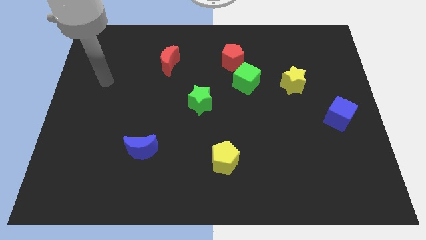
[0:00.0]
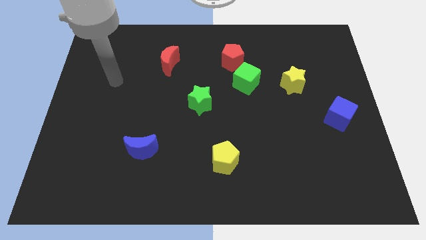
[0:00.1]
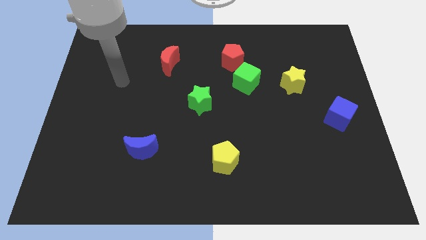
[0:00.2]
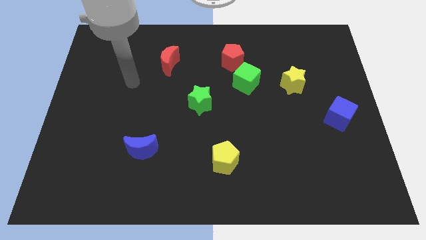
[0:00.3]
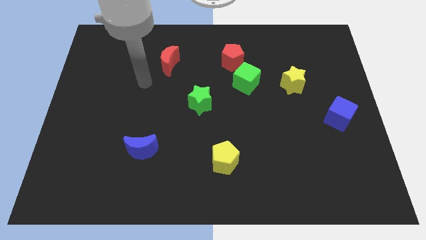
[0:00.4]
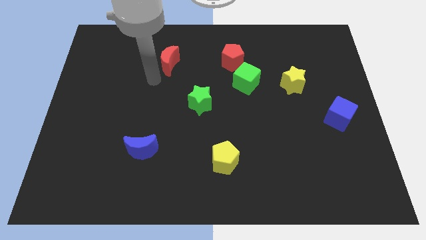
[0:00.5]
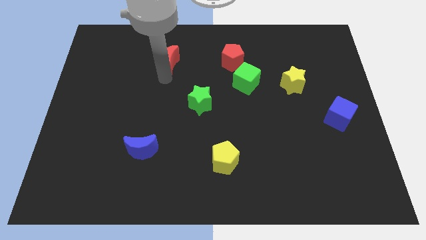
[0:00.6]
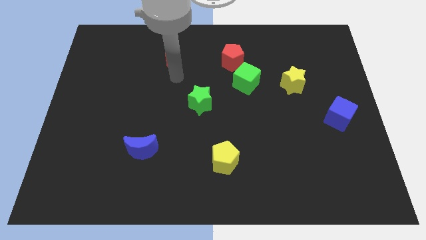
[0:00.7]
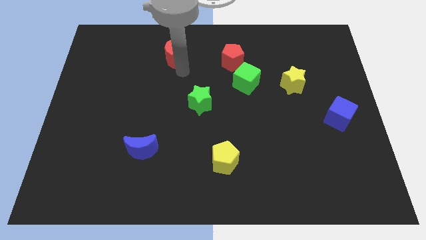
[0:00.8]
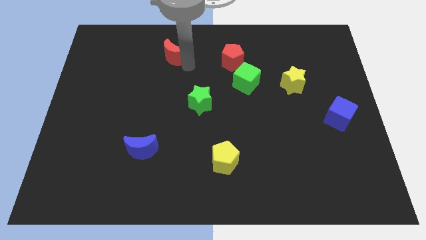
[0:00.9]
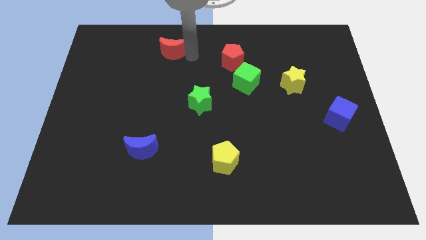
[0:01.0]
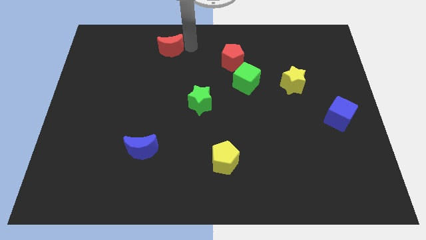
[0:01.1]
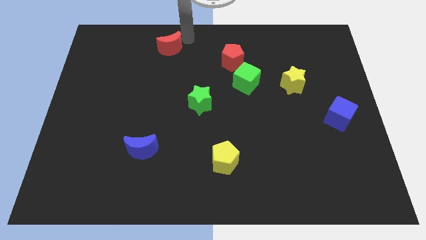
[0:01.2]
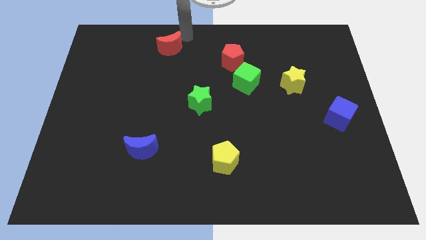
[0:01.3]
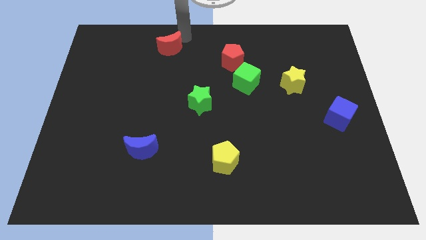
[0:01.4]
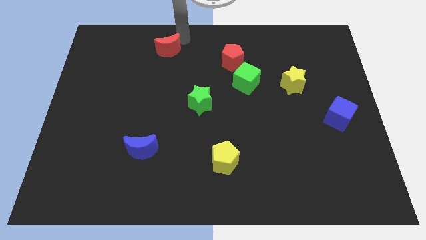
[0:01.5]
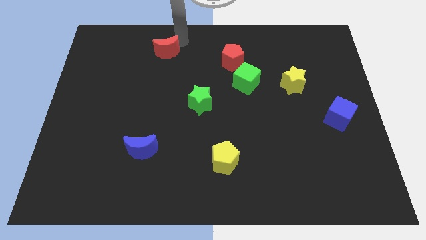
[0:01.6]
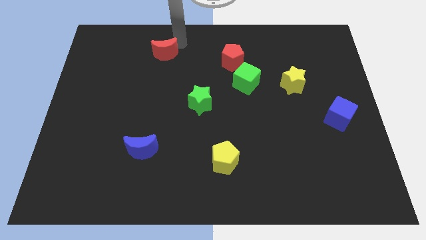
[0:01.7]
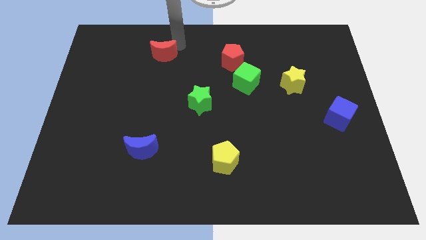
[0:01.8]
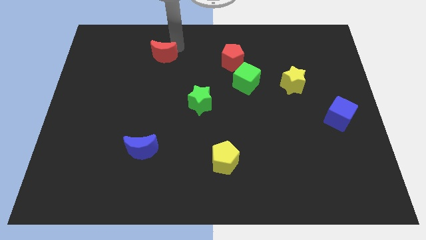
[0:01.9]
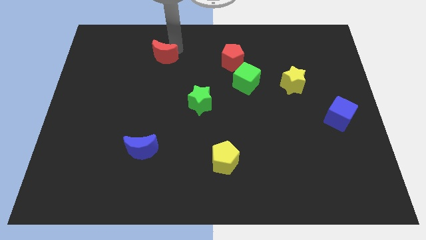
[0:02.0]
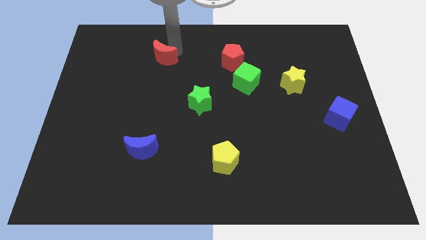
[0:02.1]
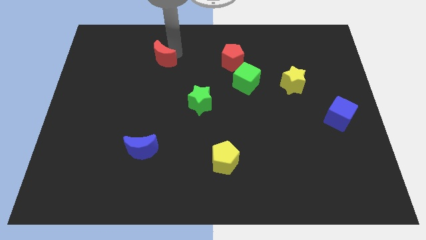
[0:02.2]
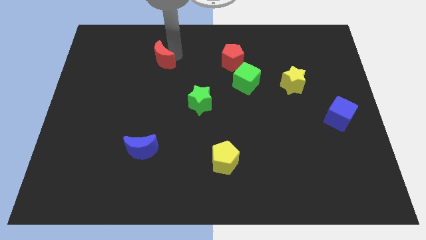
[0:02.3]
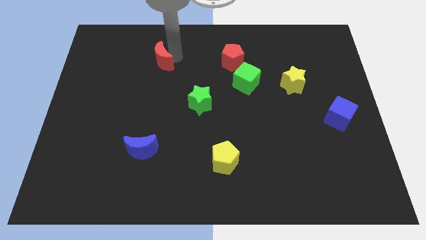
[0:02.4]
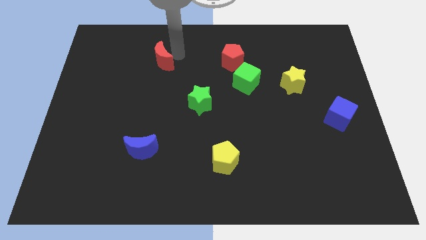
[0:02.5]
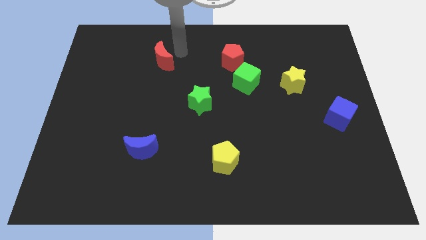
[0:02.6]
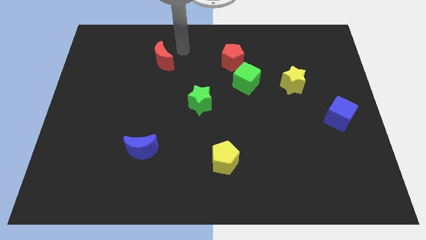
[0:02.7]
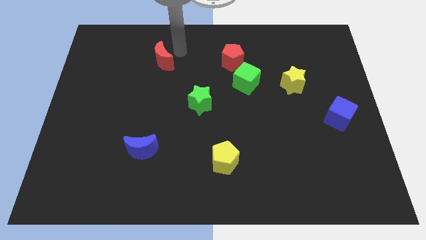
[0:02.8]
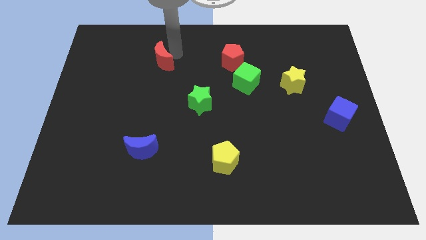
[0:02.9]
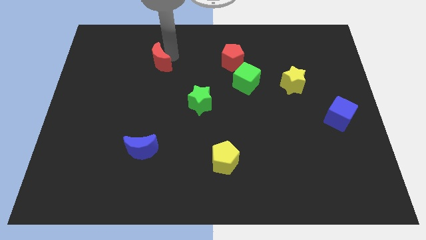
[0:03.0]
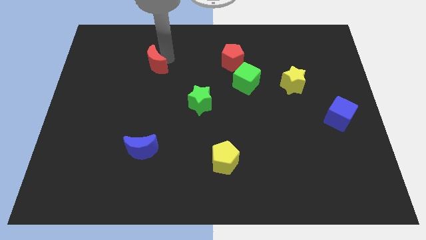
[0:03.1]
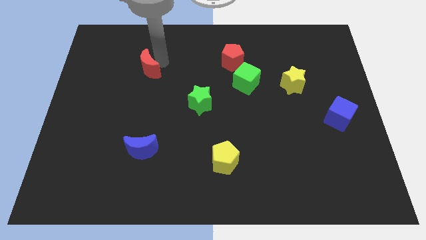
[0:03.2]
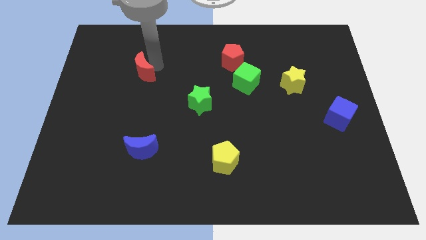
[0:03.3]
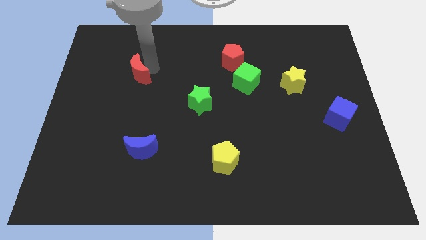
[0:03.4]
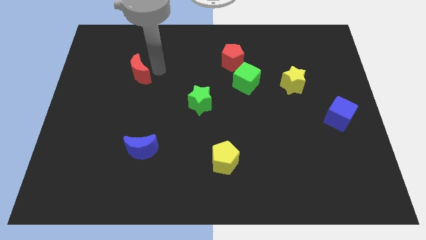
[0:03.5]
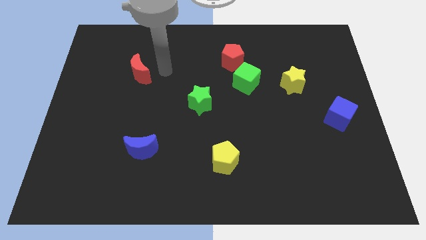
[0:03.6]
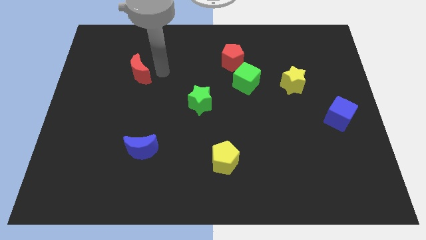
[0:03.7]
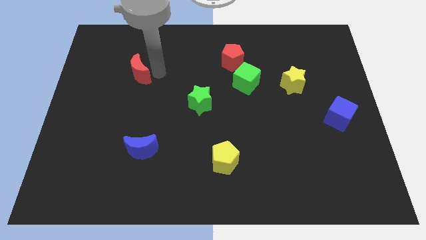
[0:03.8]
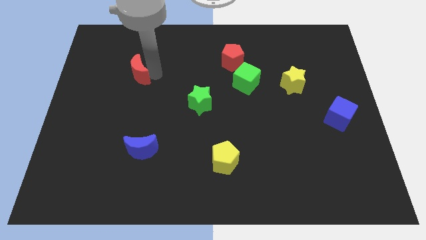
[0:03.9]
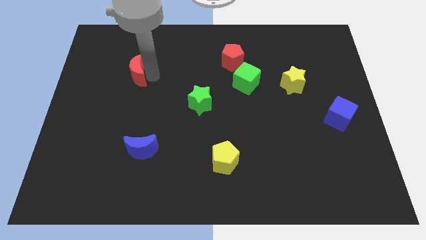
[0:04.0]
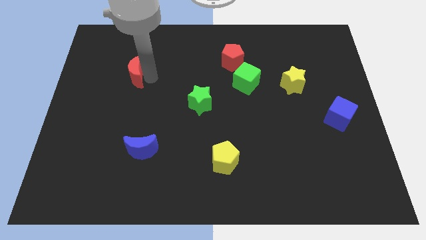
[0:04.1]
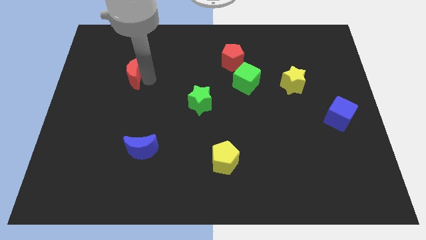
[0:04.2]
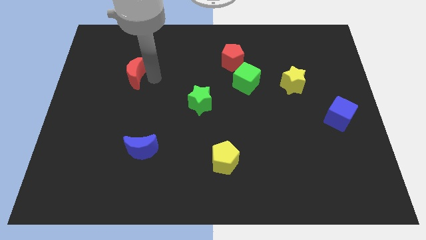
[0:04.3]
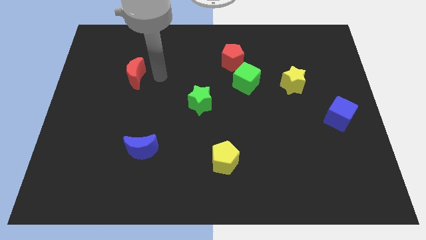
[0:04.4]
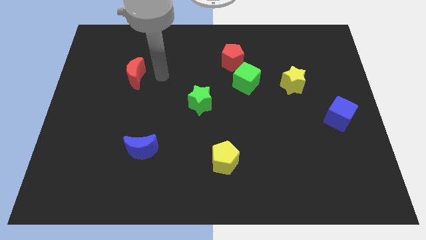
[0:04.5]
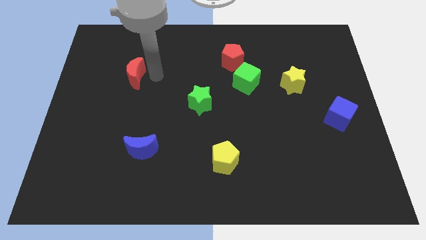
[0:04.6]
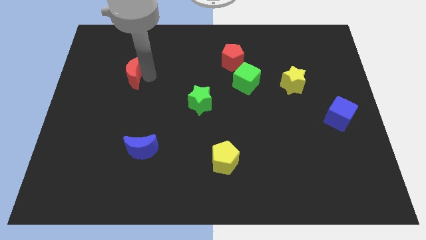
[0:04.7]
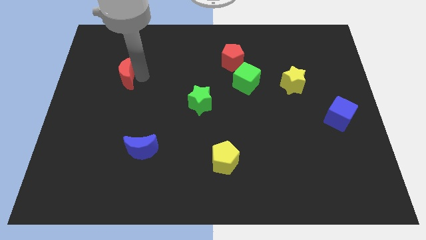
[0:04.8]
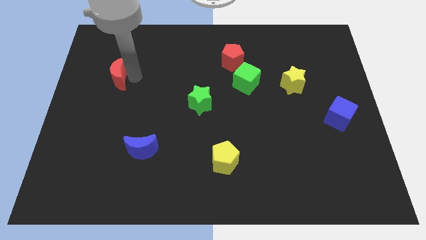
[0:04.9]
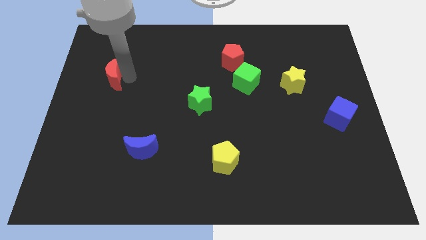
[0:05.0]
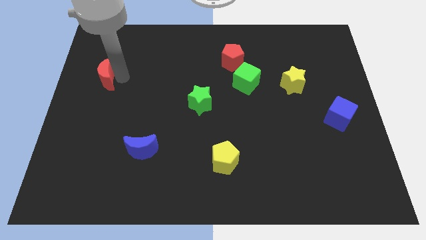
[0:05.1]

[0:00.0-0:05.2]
push the red moon to the left side of the board

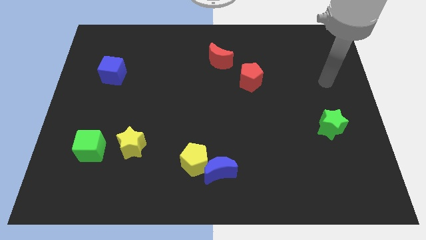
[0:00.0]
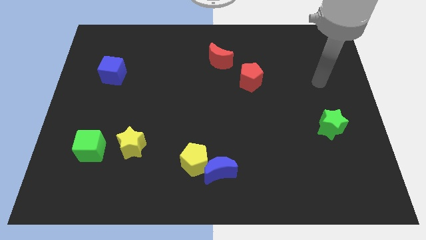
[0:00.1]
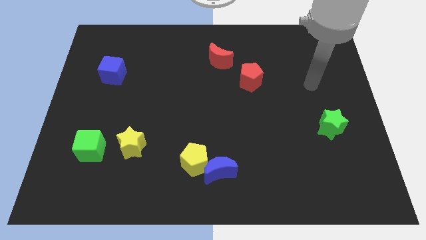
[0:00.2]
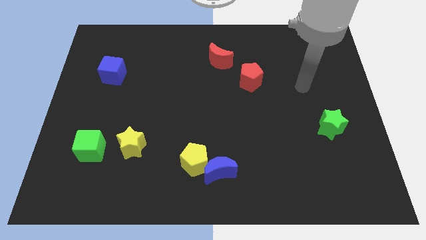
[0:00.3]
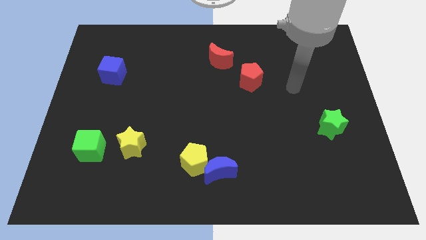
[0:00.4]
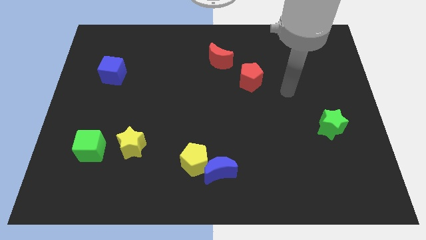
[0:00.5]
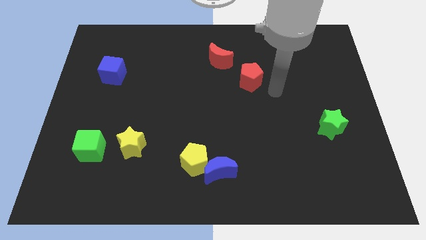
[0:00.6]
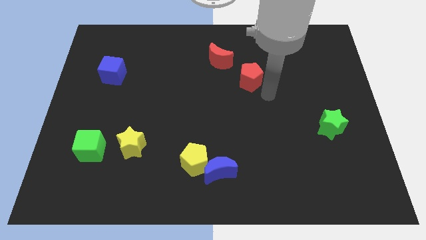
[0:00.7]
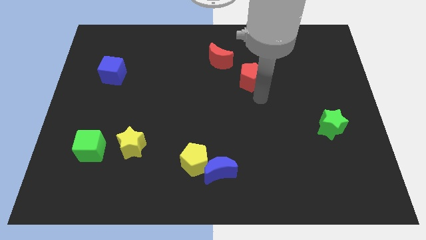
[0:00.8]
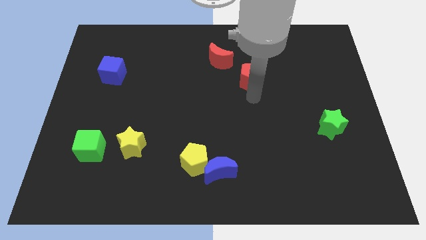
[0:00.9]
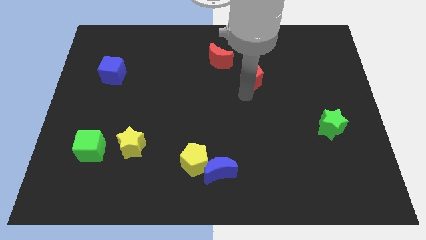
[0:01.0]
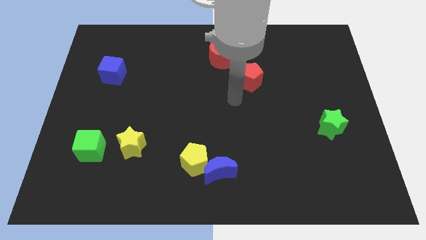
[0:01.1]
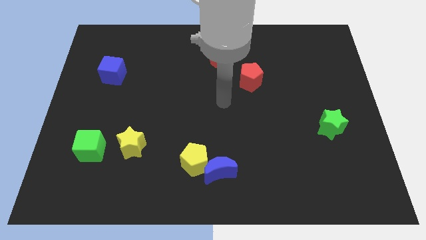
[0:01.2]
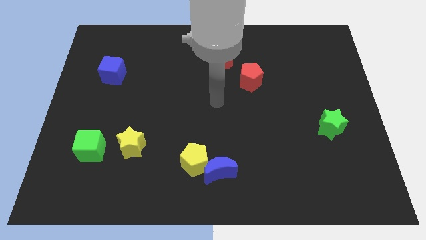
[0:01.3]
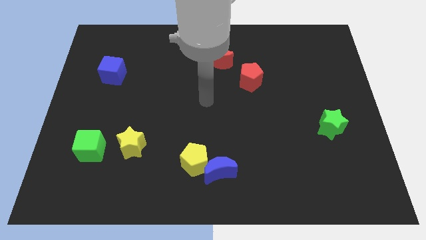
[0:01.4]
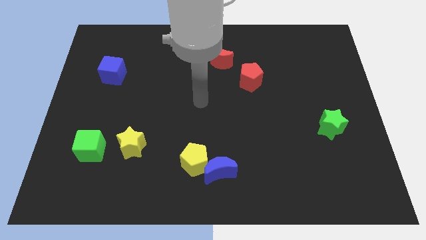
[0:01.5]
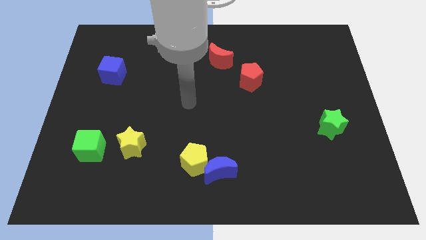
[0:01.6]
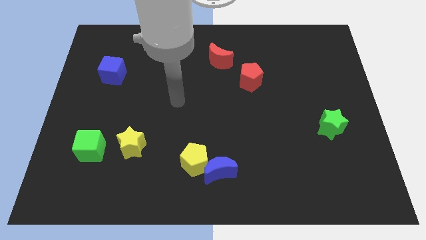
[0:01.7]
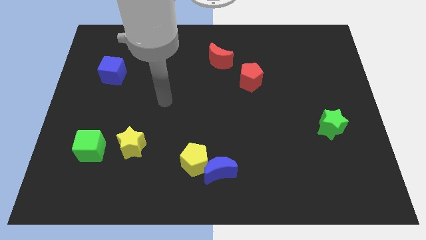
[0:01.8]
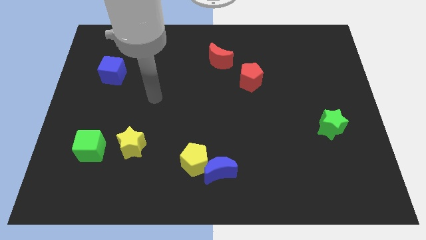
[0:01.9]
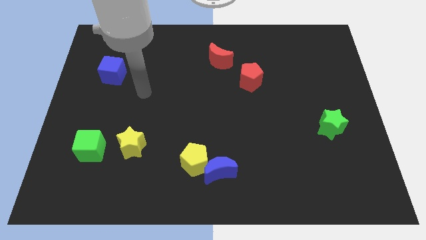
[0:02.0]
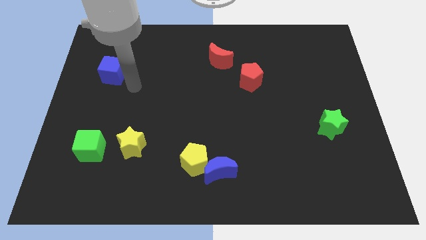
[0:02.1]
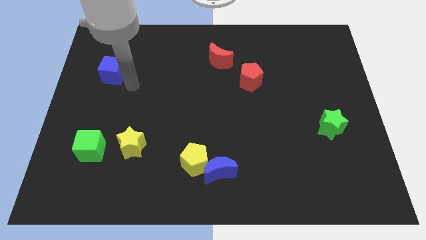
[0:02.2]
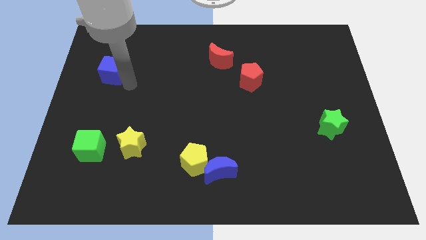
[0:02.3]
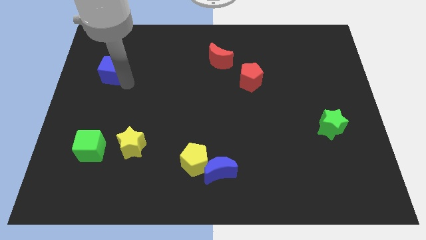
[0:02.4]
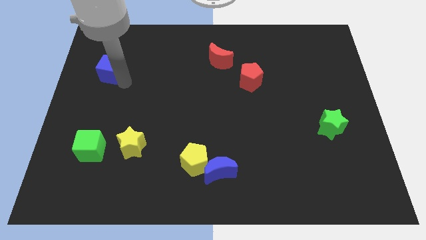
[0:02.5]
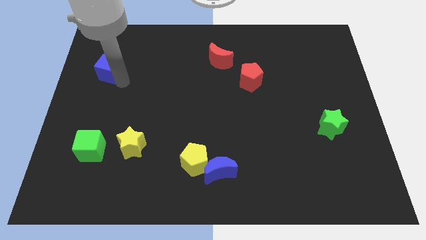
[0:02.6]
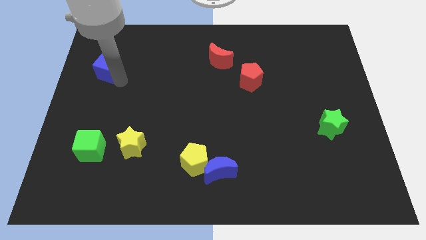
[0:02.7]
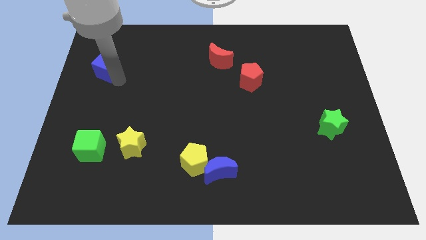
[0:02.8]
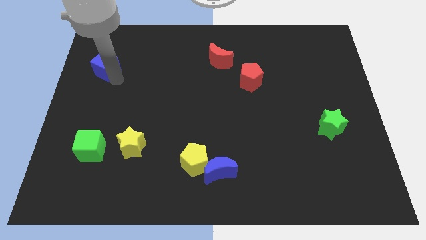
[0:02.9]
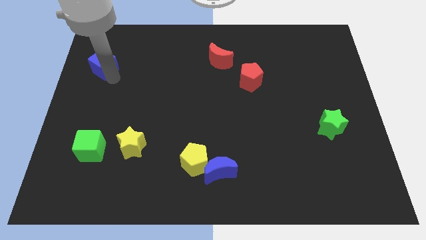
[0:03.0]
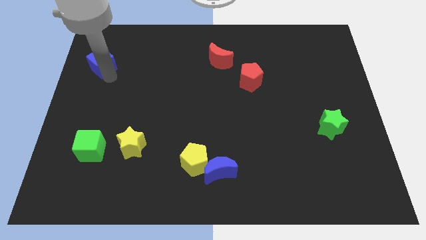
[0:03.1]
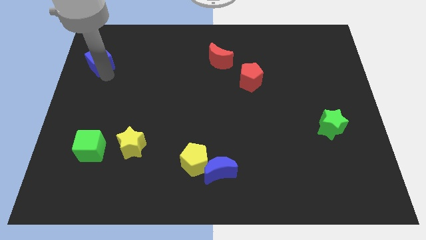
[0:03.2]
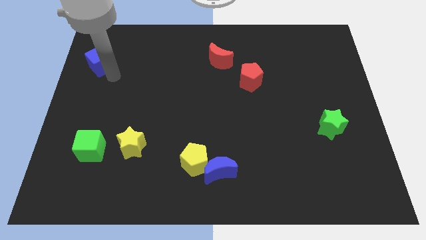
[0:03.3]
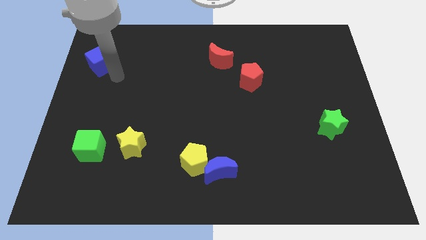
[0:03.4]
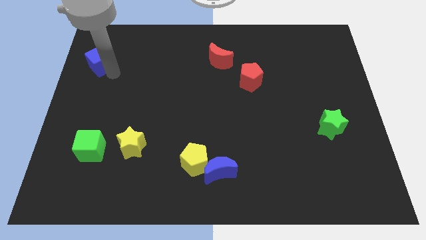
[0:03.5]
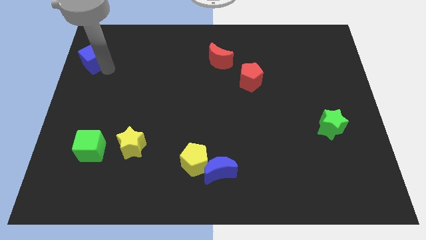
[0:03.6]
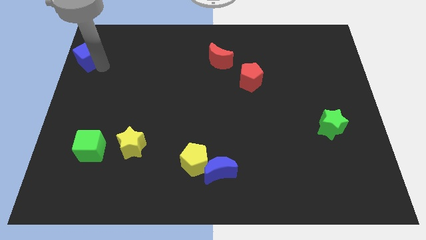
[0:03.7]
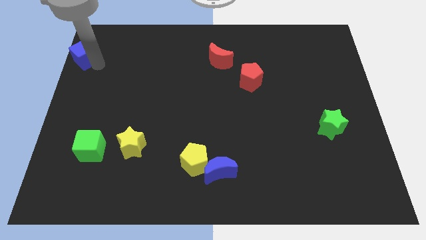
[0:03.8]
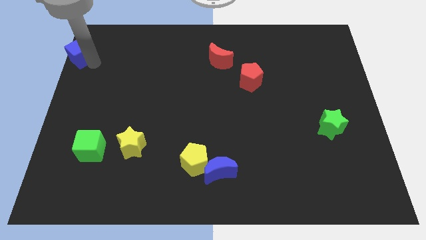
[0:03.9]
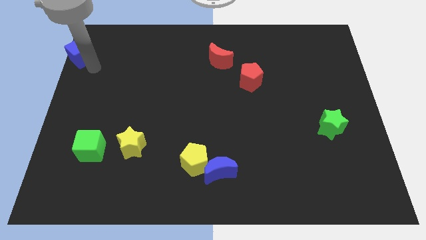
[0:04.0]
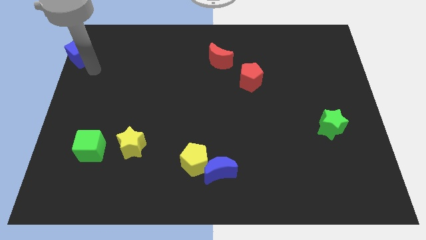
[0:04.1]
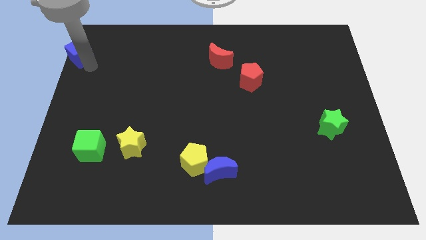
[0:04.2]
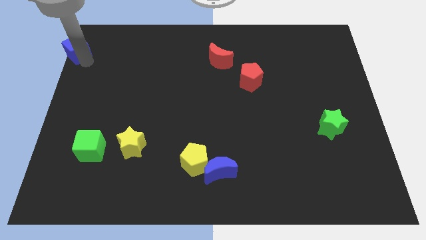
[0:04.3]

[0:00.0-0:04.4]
move the blue cube to the top left corner
